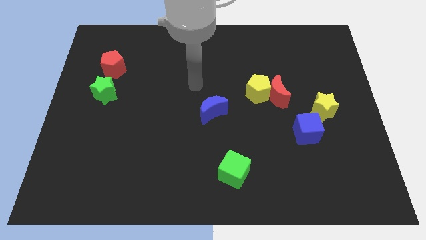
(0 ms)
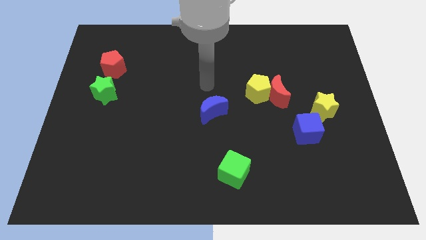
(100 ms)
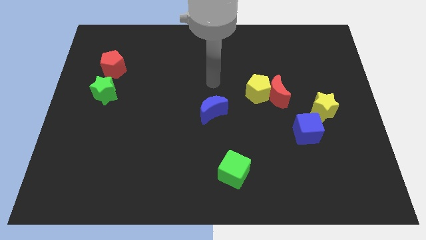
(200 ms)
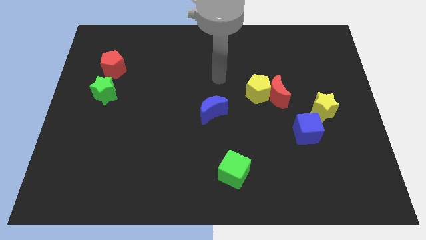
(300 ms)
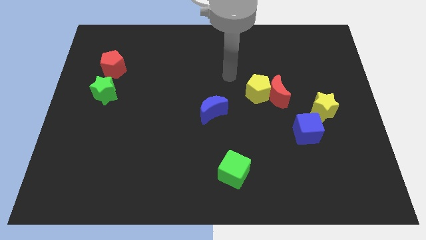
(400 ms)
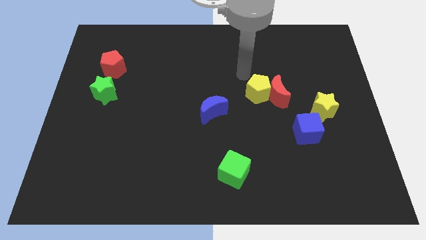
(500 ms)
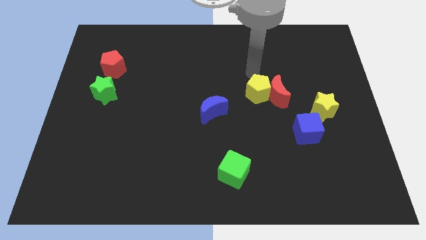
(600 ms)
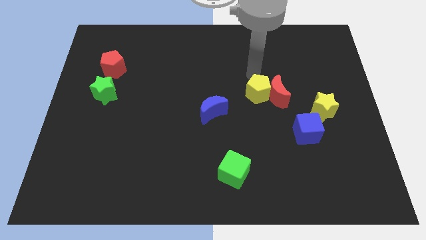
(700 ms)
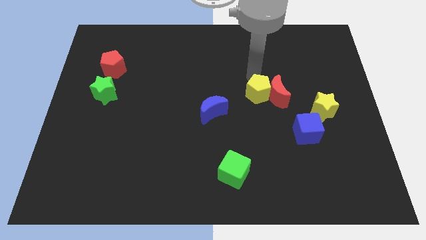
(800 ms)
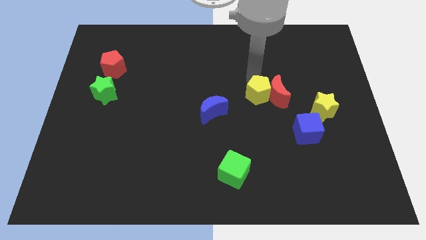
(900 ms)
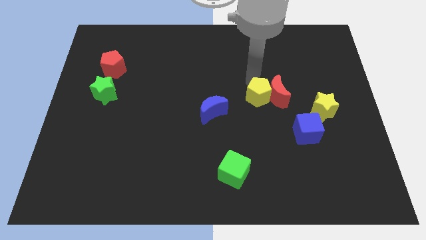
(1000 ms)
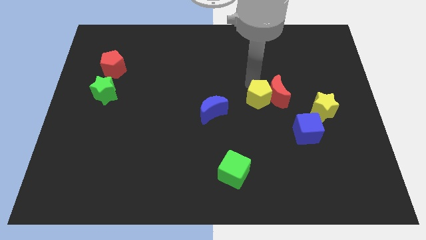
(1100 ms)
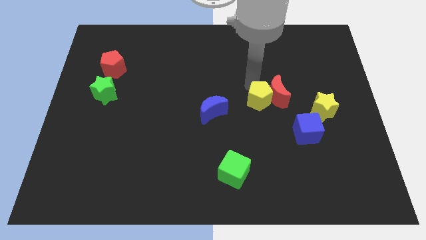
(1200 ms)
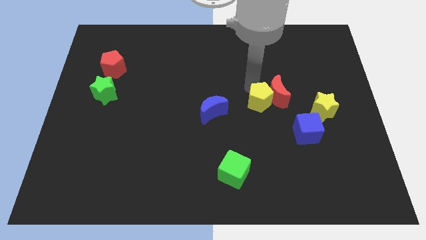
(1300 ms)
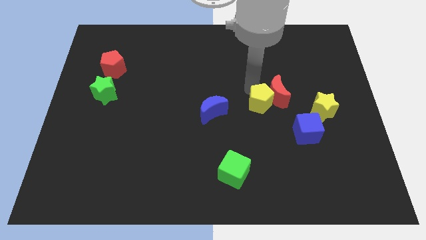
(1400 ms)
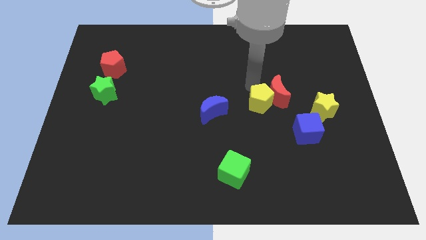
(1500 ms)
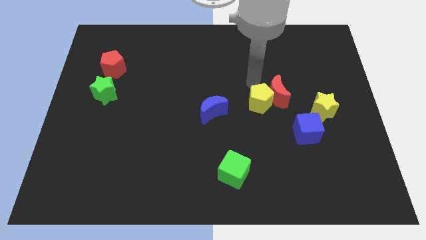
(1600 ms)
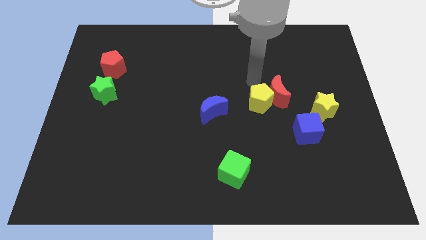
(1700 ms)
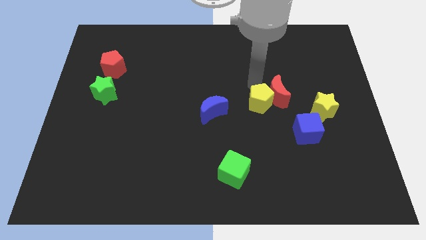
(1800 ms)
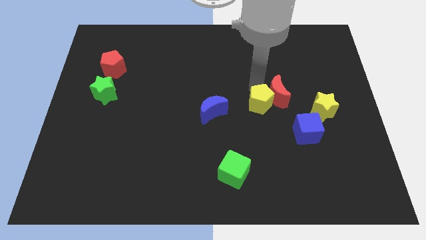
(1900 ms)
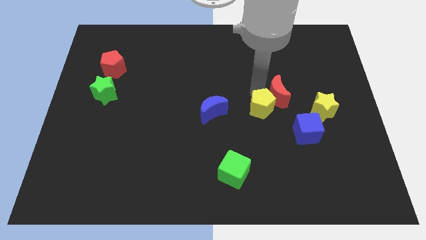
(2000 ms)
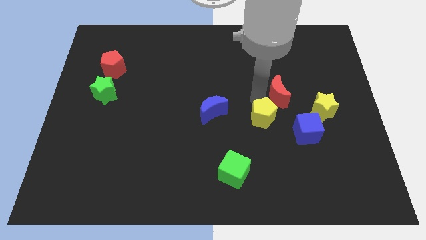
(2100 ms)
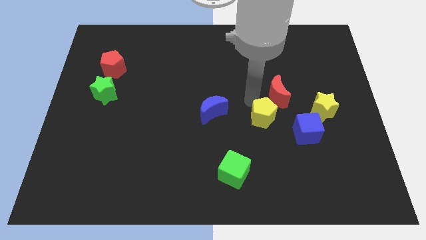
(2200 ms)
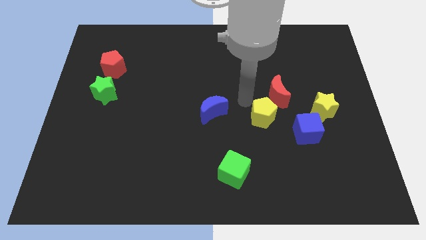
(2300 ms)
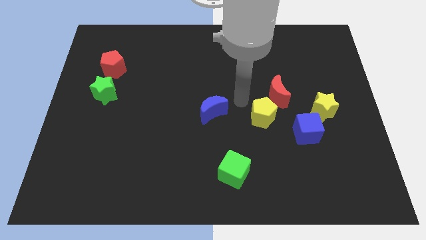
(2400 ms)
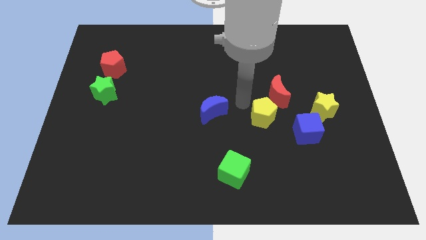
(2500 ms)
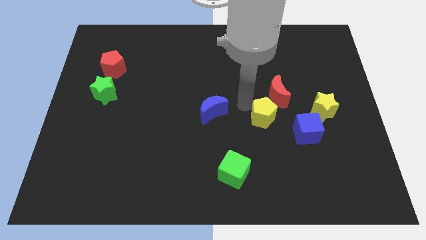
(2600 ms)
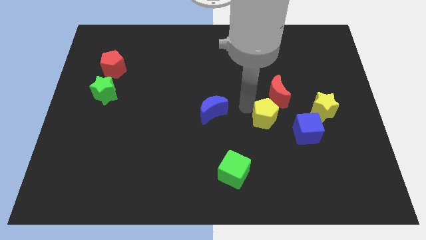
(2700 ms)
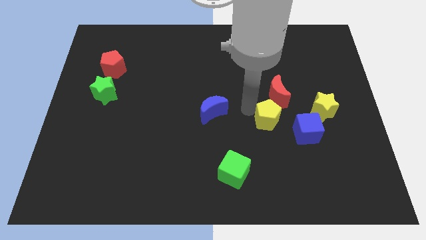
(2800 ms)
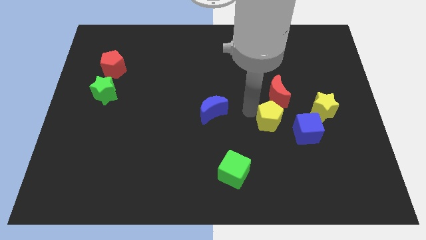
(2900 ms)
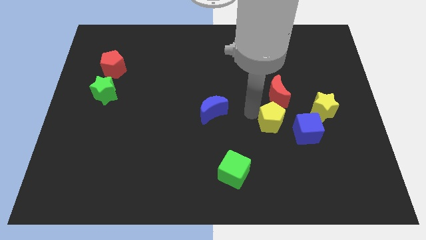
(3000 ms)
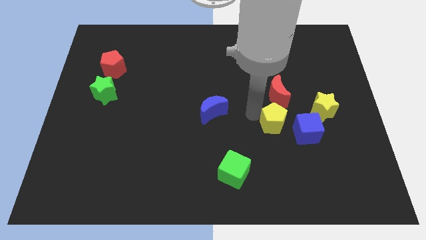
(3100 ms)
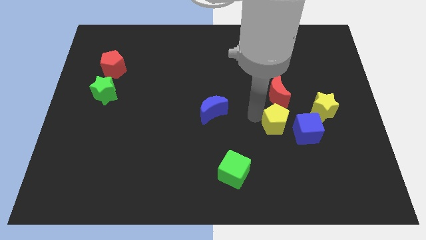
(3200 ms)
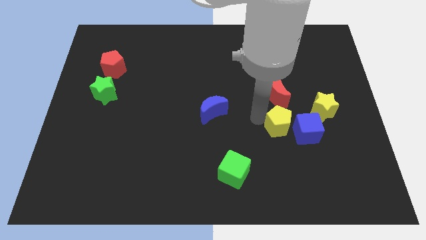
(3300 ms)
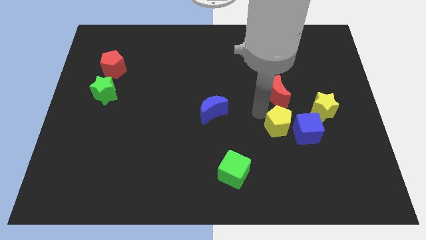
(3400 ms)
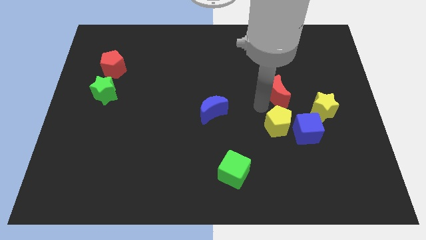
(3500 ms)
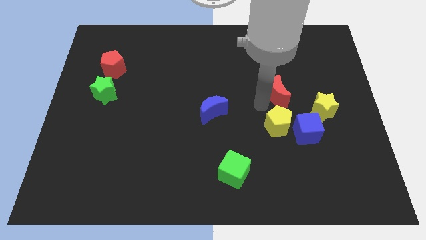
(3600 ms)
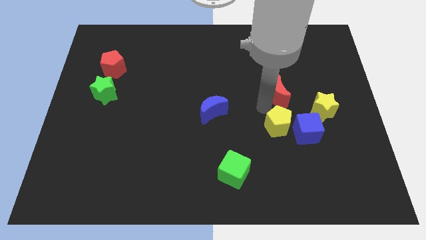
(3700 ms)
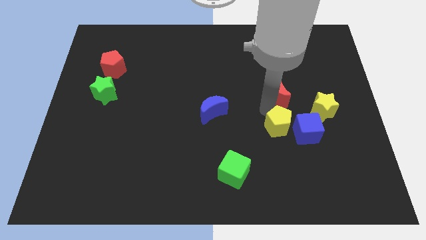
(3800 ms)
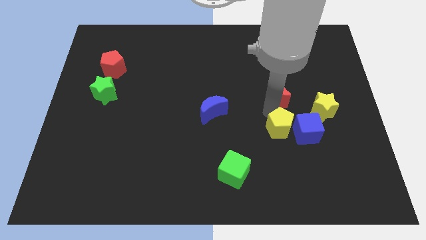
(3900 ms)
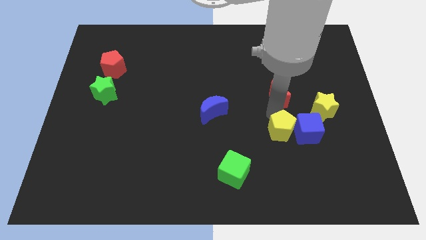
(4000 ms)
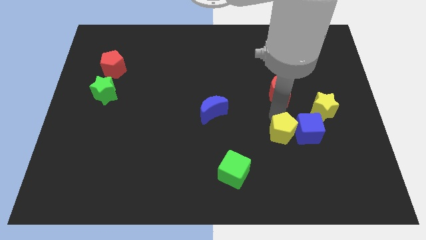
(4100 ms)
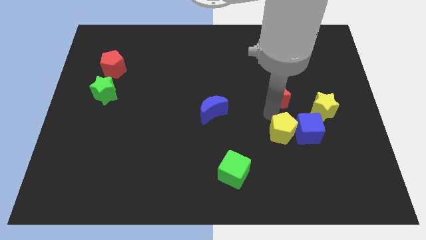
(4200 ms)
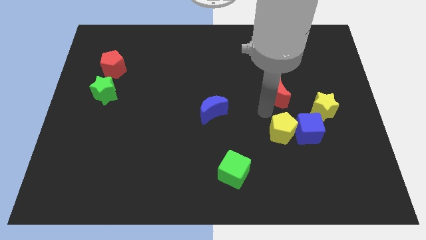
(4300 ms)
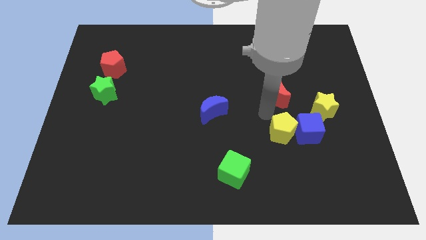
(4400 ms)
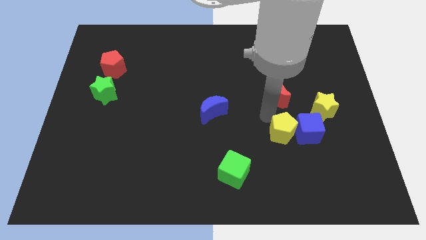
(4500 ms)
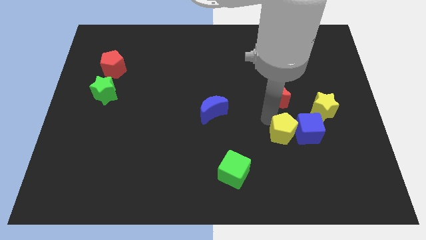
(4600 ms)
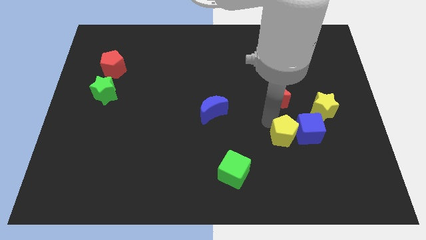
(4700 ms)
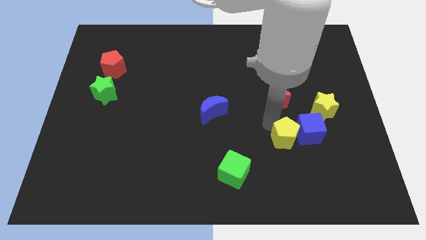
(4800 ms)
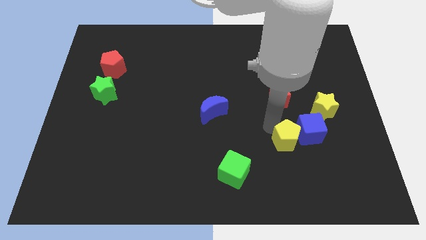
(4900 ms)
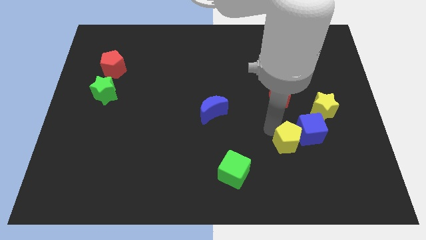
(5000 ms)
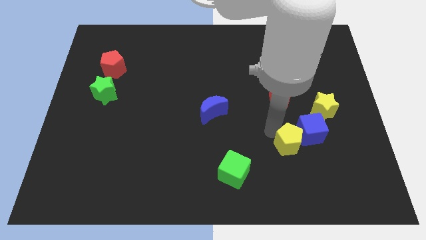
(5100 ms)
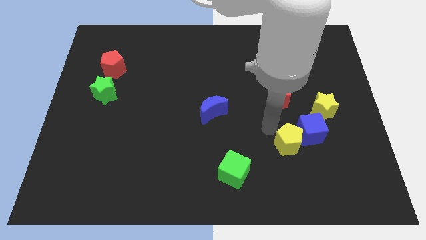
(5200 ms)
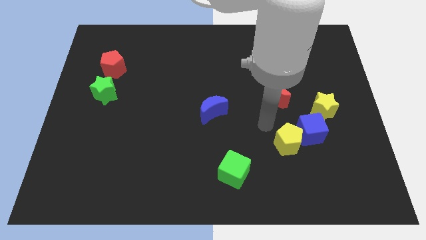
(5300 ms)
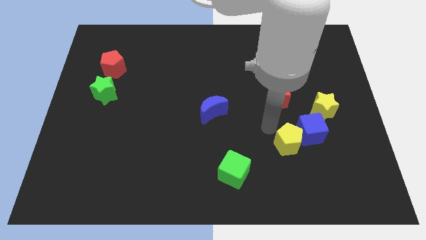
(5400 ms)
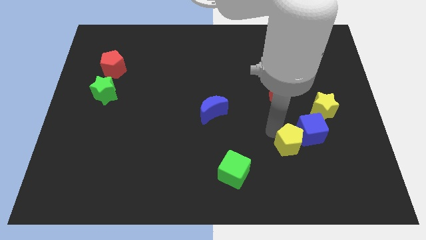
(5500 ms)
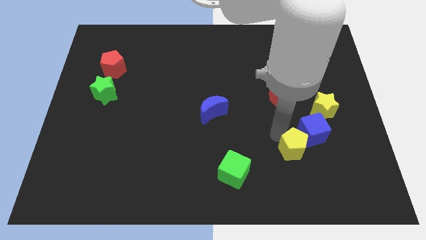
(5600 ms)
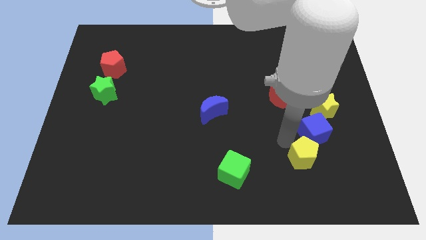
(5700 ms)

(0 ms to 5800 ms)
push the yellow pentagon to the bottom of the blue cube
